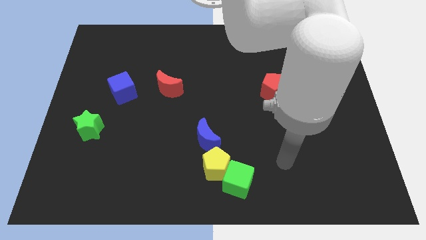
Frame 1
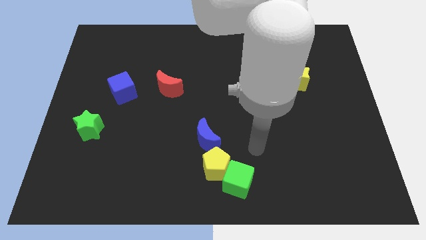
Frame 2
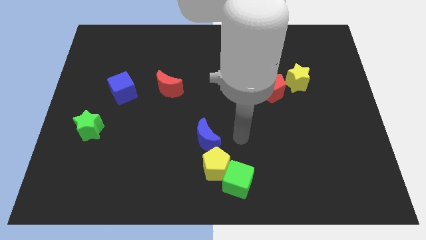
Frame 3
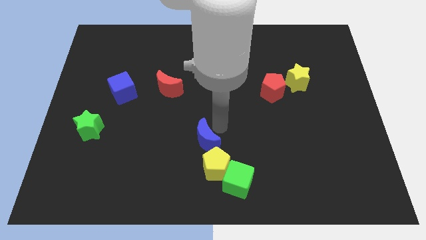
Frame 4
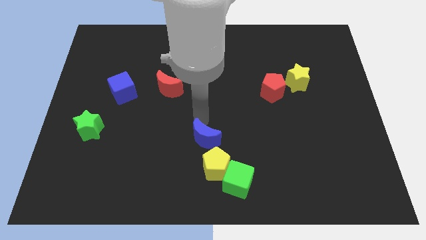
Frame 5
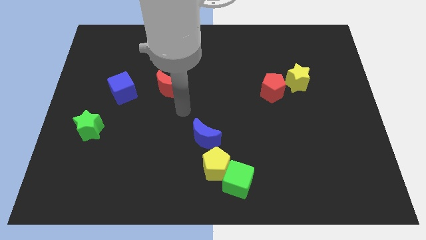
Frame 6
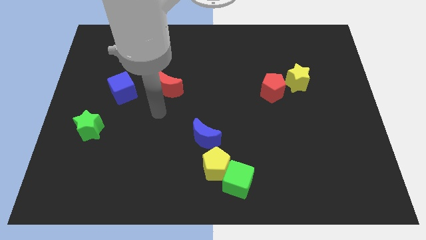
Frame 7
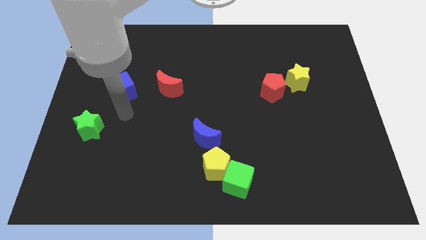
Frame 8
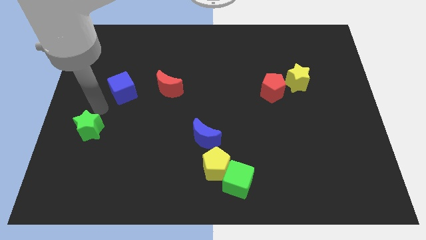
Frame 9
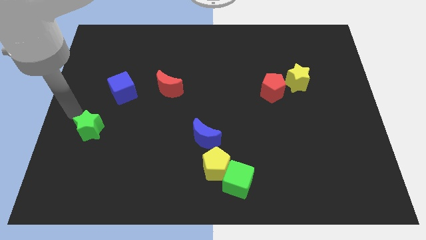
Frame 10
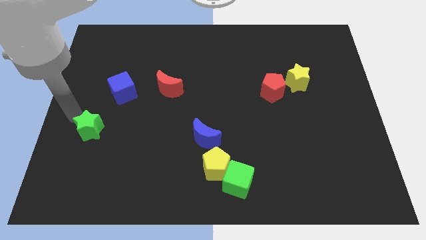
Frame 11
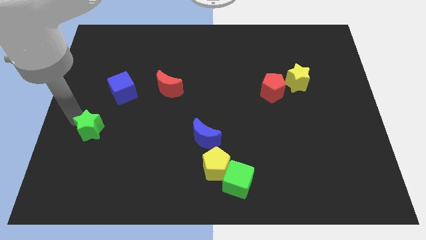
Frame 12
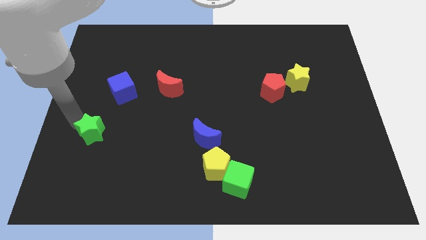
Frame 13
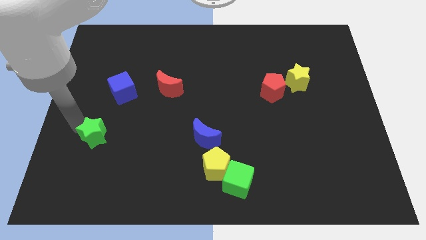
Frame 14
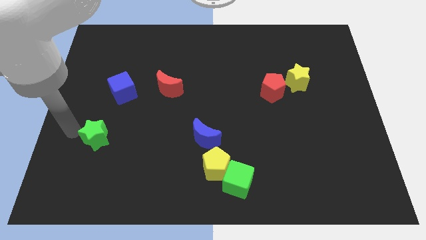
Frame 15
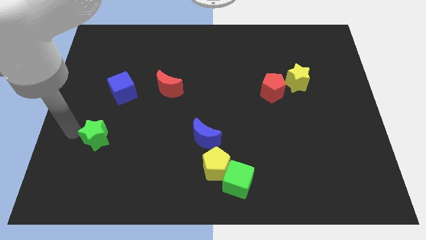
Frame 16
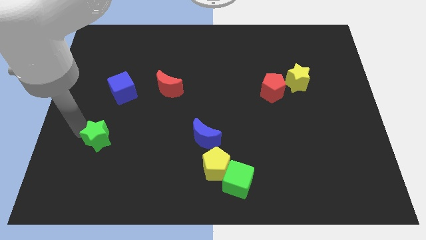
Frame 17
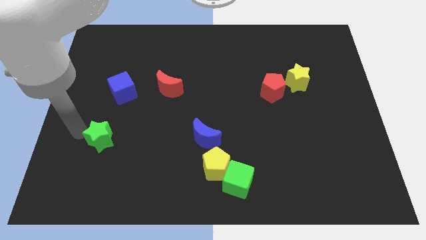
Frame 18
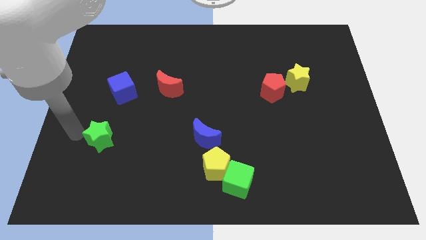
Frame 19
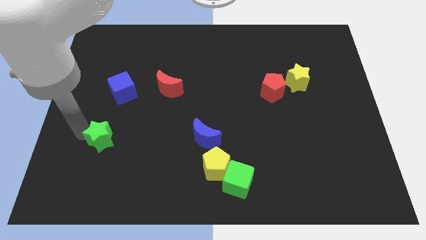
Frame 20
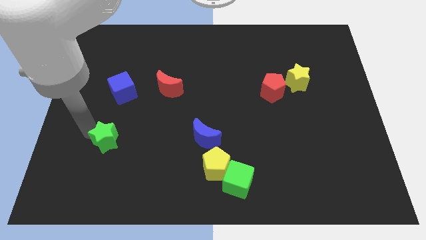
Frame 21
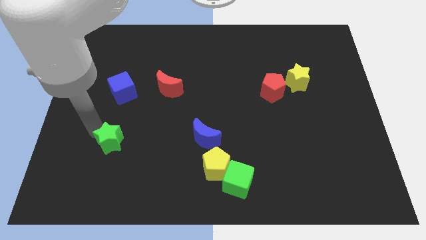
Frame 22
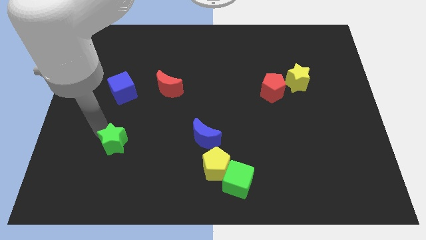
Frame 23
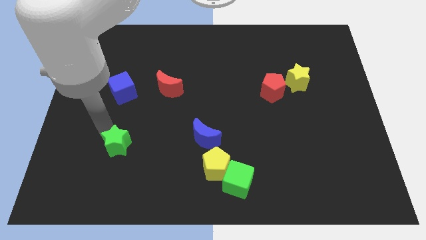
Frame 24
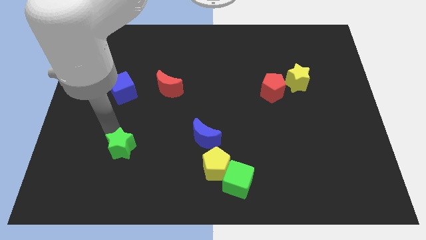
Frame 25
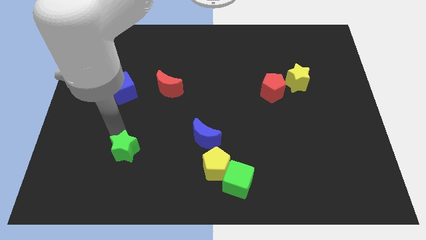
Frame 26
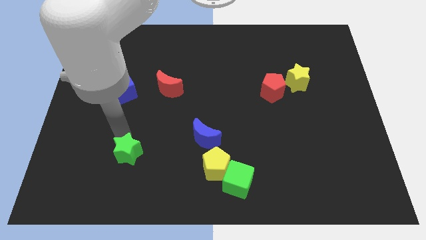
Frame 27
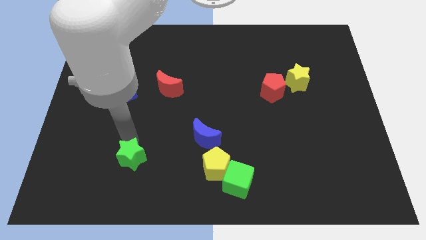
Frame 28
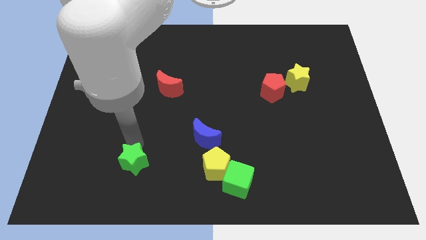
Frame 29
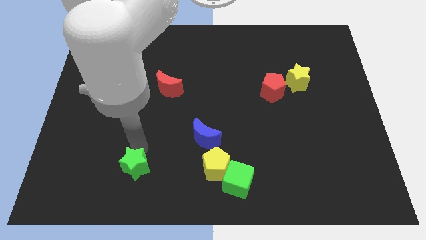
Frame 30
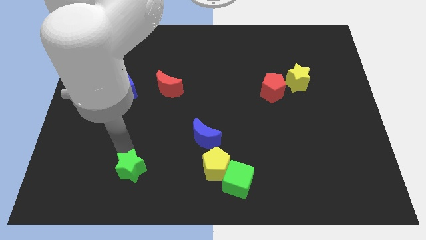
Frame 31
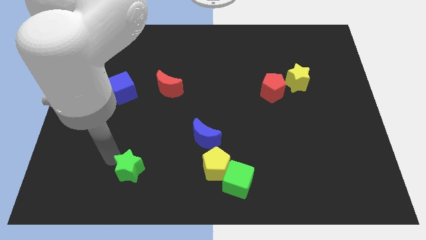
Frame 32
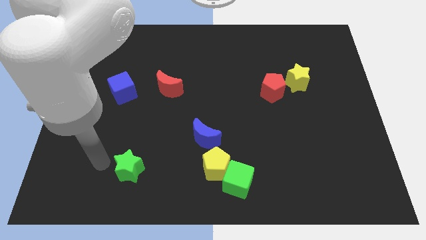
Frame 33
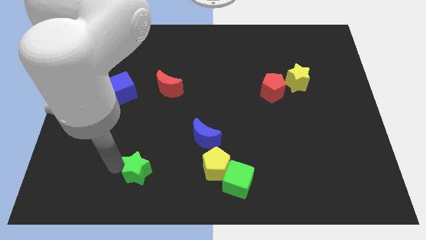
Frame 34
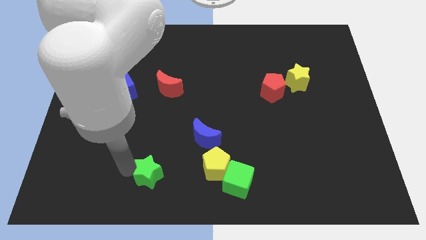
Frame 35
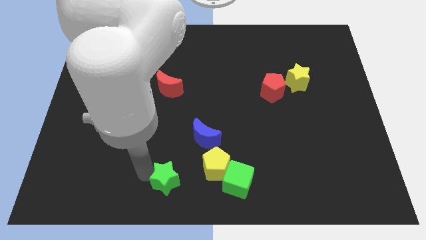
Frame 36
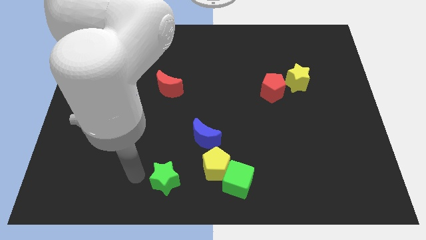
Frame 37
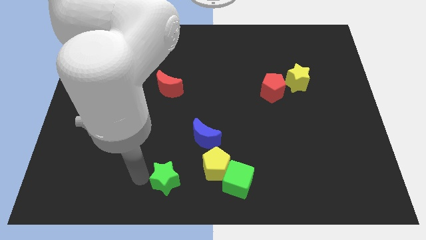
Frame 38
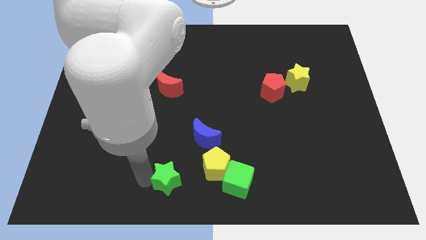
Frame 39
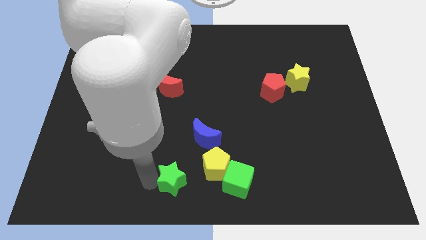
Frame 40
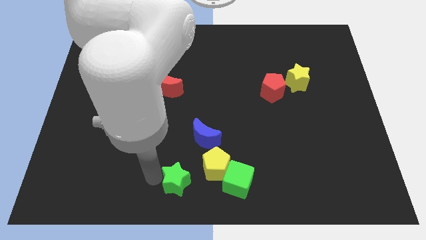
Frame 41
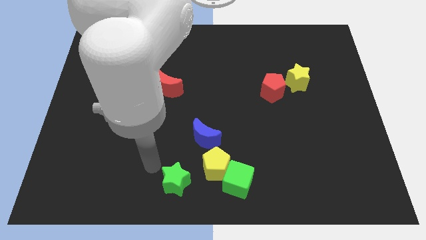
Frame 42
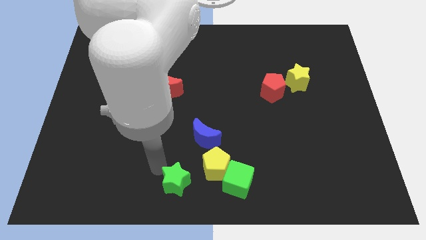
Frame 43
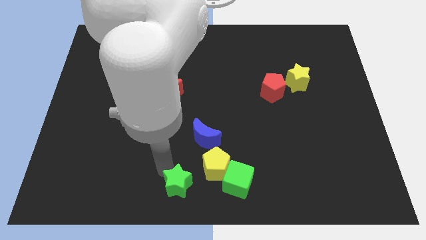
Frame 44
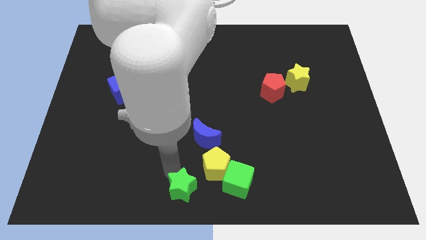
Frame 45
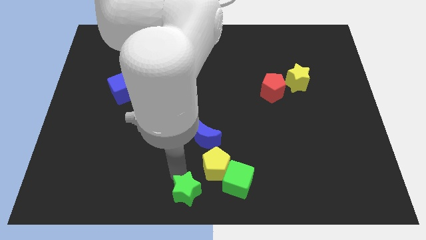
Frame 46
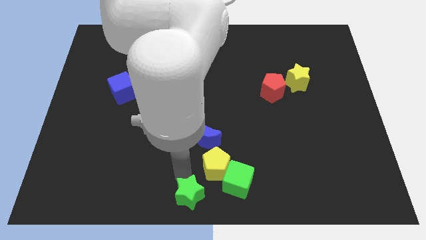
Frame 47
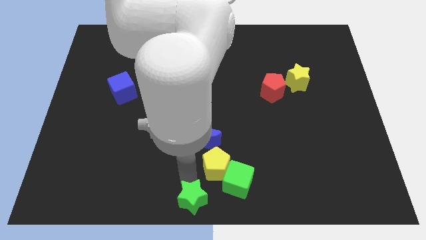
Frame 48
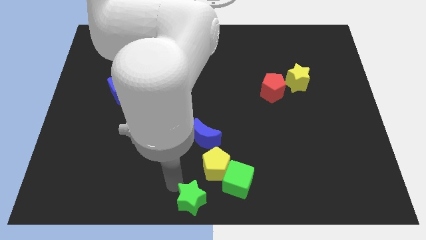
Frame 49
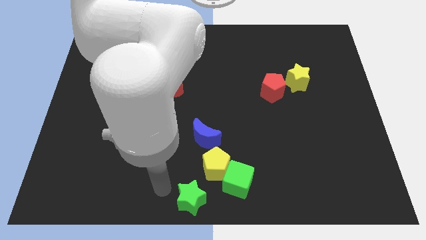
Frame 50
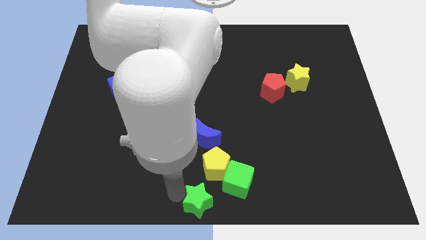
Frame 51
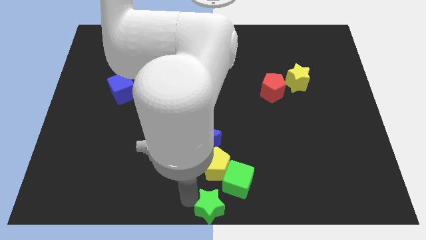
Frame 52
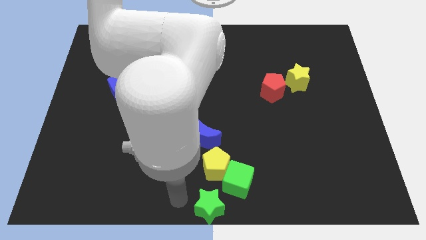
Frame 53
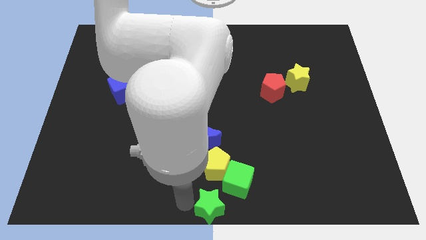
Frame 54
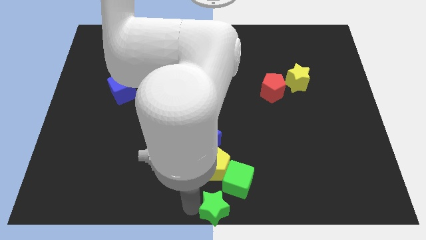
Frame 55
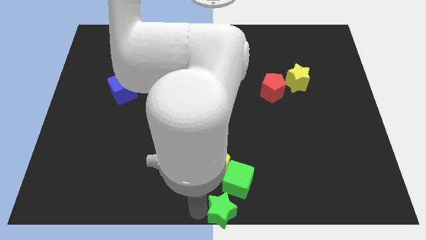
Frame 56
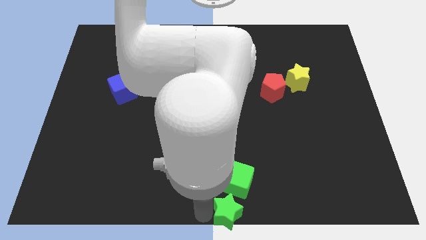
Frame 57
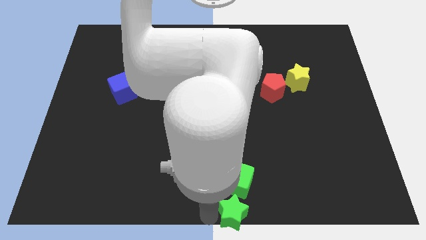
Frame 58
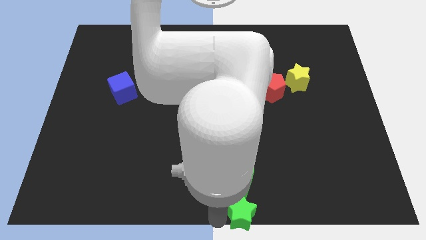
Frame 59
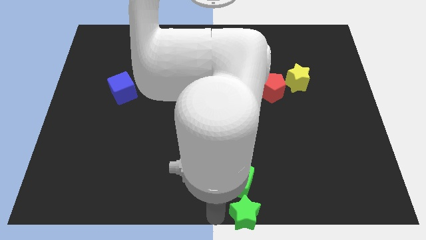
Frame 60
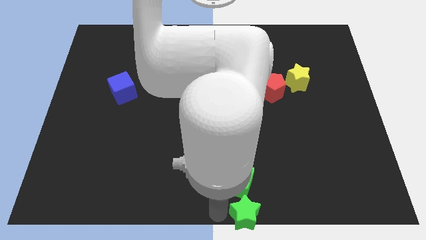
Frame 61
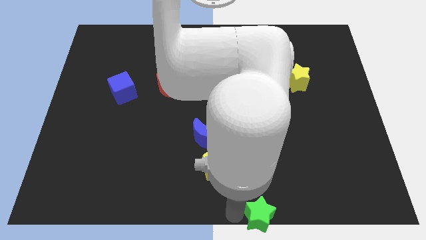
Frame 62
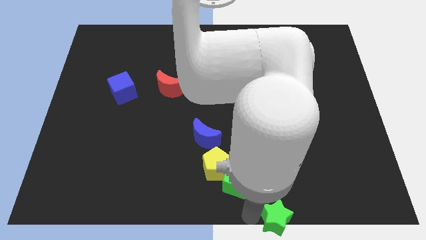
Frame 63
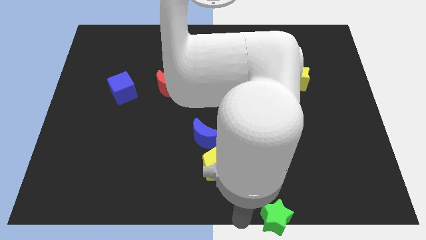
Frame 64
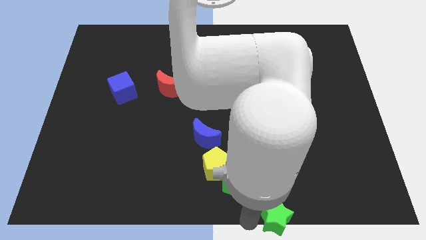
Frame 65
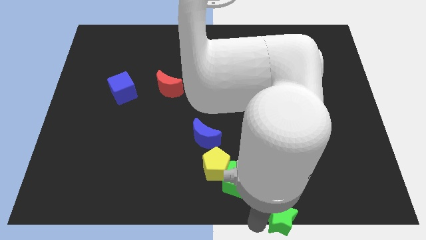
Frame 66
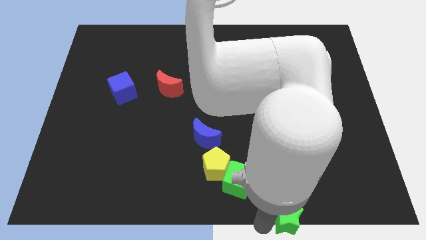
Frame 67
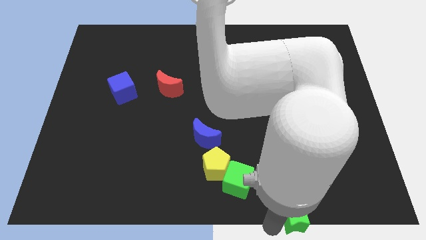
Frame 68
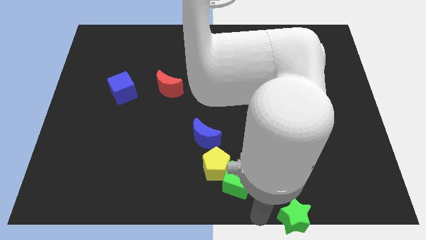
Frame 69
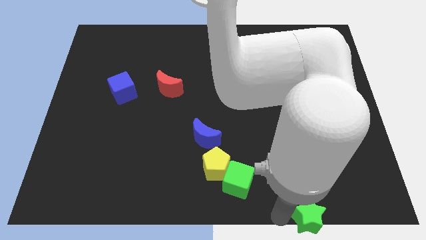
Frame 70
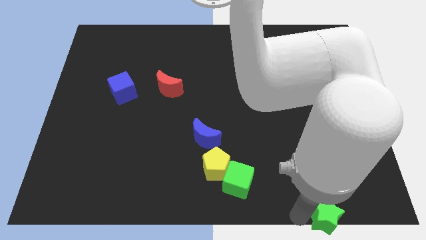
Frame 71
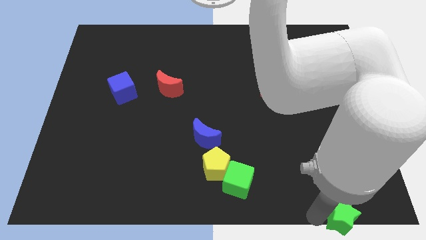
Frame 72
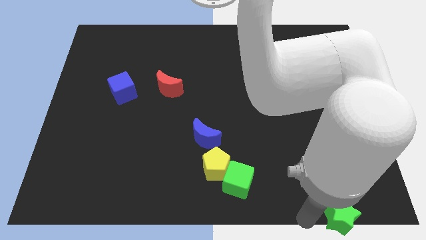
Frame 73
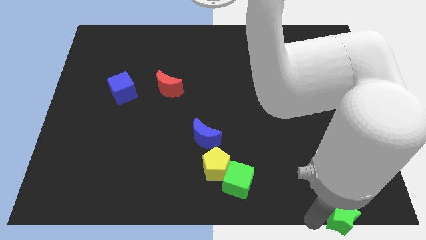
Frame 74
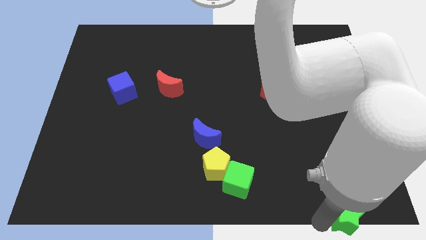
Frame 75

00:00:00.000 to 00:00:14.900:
move the green star to the lower right corner
